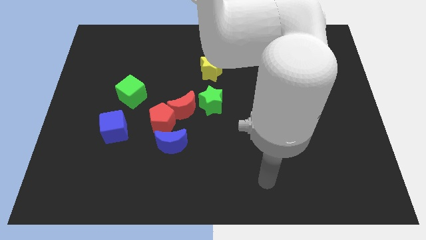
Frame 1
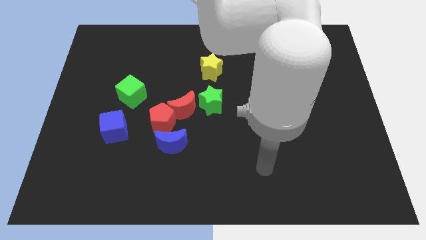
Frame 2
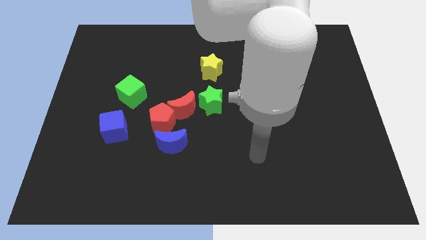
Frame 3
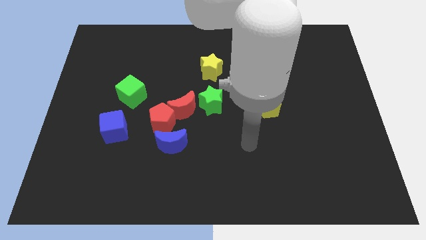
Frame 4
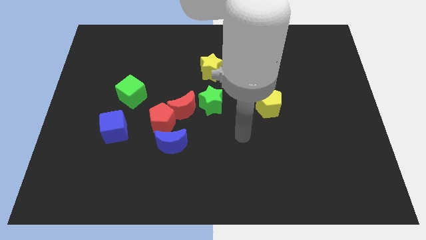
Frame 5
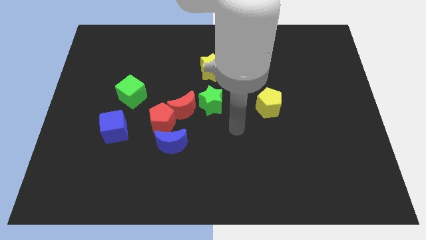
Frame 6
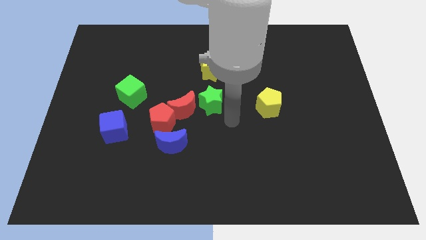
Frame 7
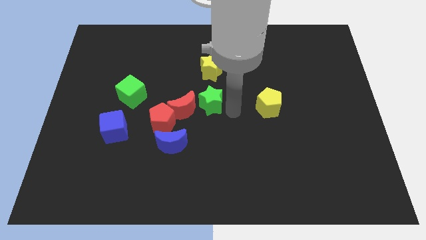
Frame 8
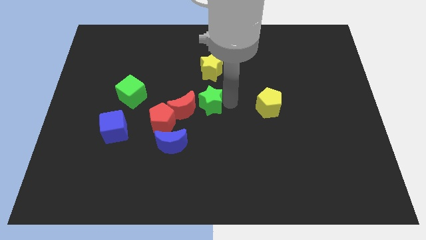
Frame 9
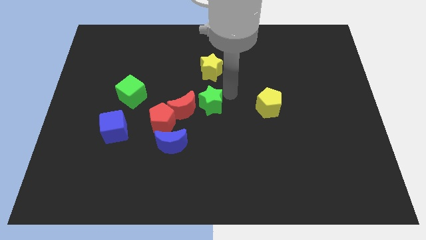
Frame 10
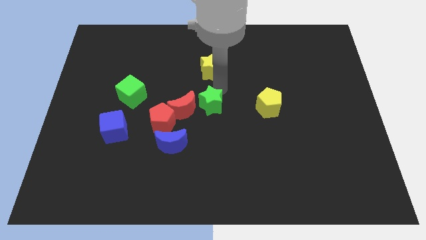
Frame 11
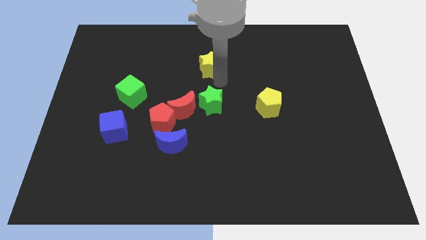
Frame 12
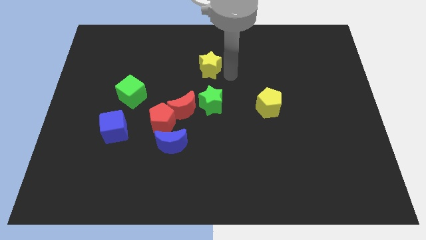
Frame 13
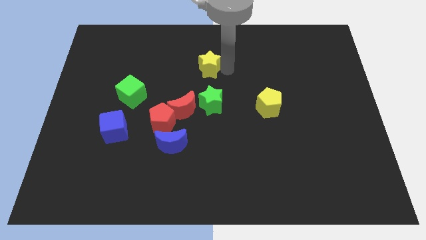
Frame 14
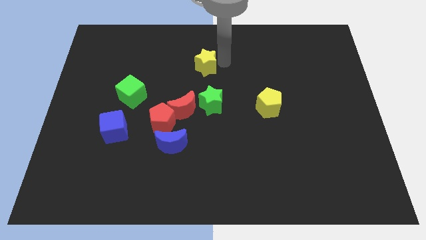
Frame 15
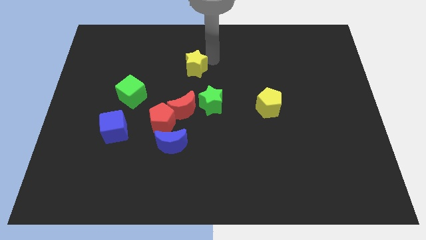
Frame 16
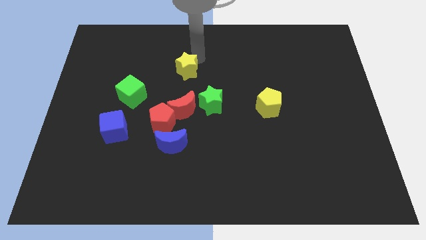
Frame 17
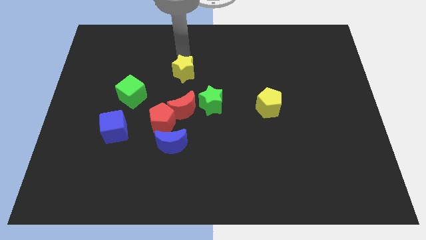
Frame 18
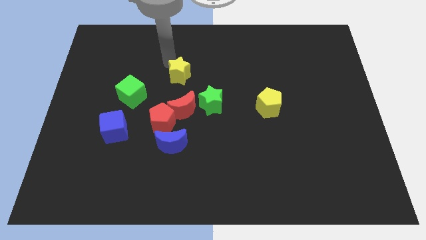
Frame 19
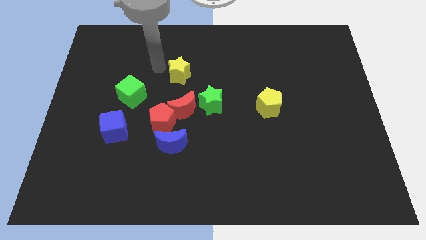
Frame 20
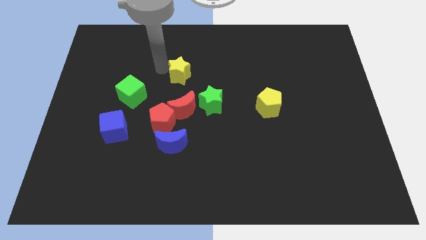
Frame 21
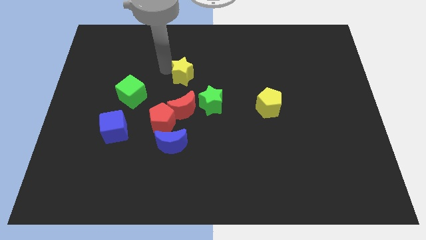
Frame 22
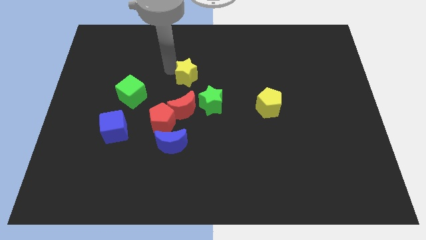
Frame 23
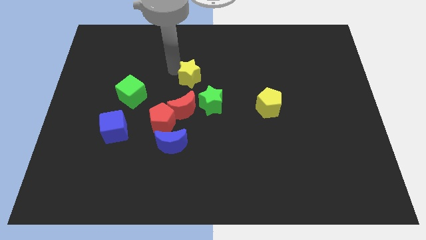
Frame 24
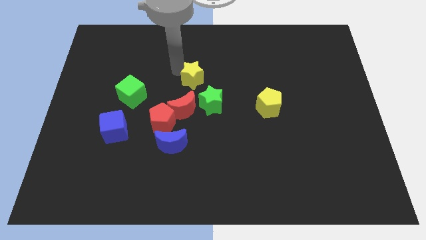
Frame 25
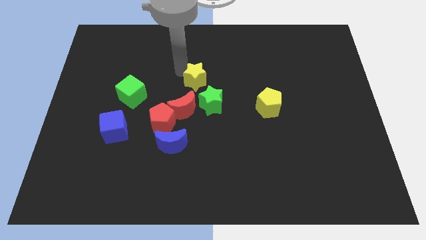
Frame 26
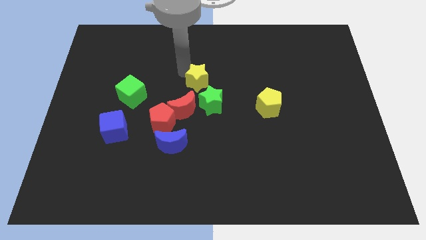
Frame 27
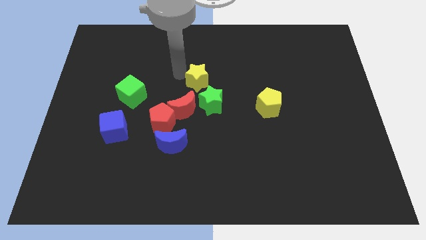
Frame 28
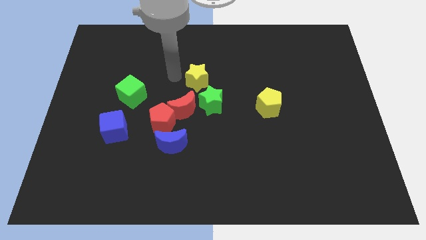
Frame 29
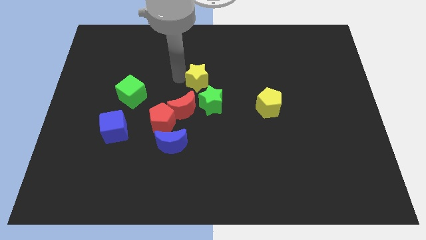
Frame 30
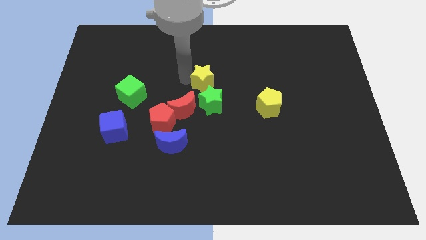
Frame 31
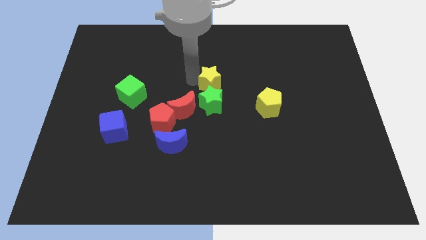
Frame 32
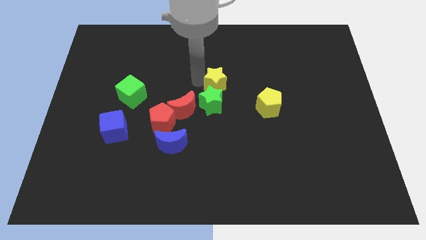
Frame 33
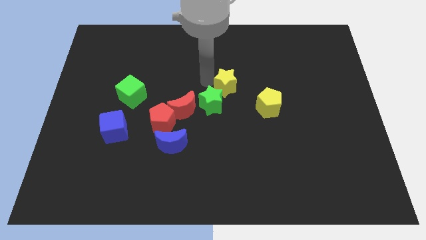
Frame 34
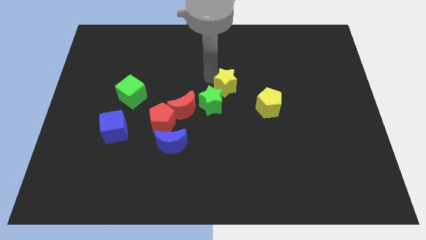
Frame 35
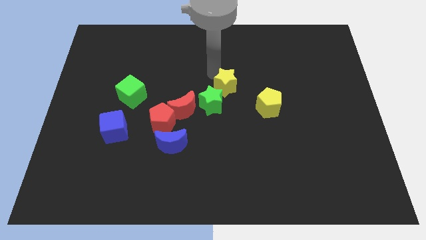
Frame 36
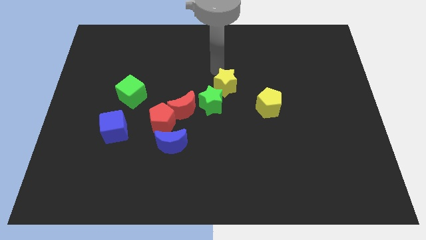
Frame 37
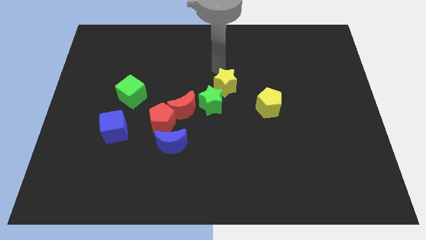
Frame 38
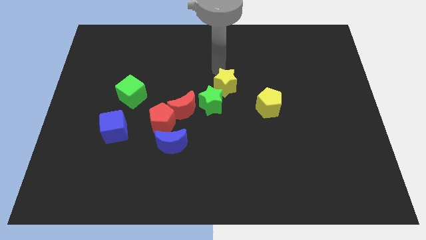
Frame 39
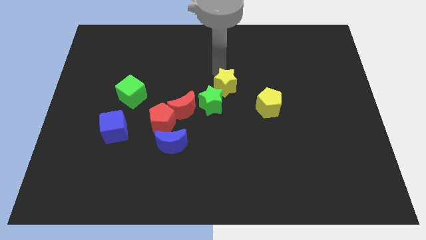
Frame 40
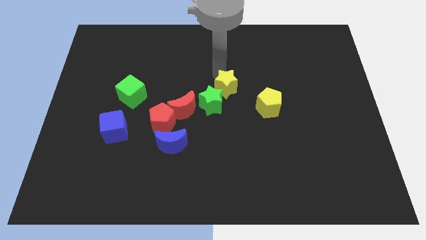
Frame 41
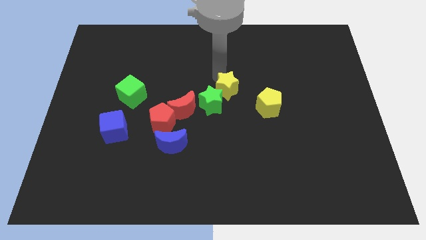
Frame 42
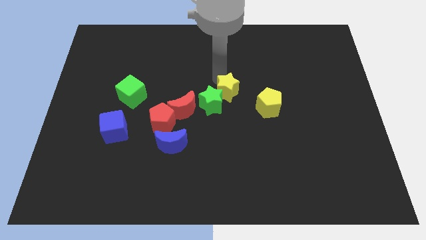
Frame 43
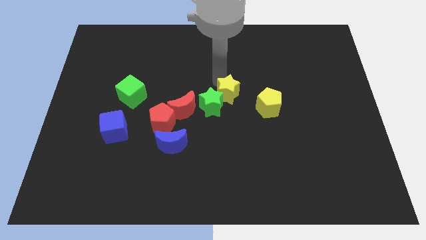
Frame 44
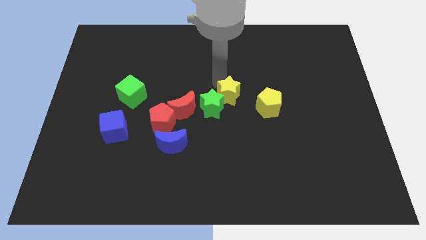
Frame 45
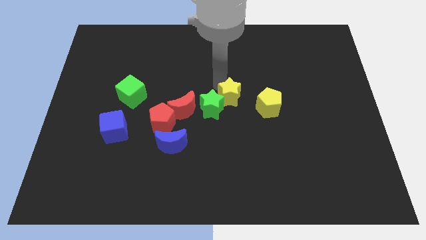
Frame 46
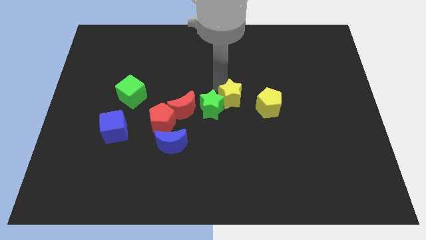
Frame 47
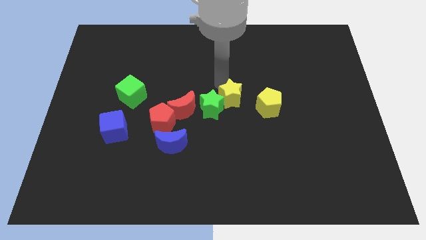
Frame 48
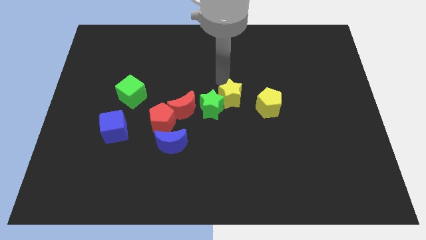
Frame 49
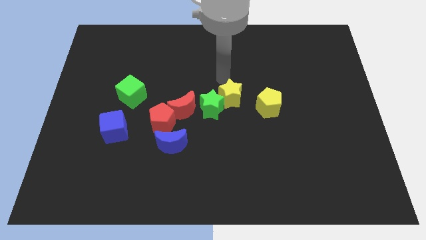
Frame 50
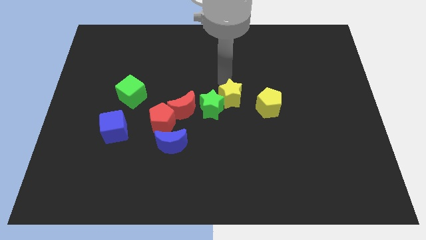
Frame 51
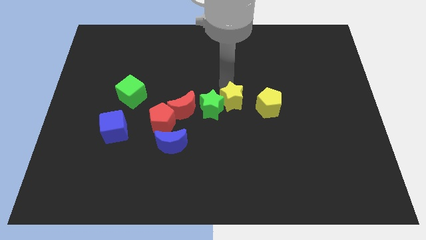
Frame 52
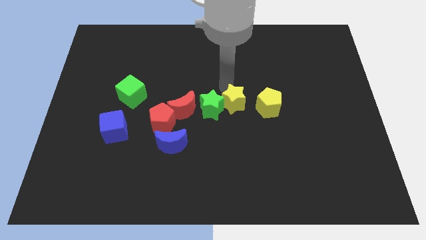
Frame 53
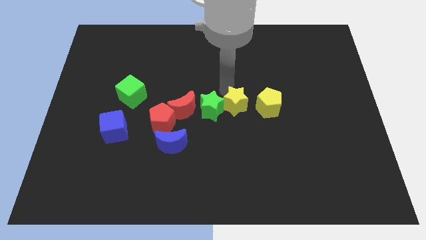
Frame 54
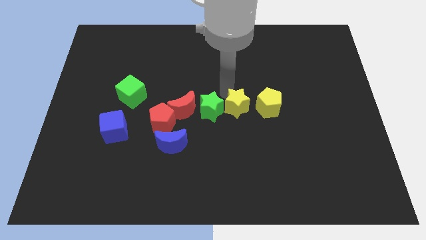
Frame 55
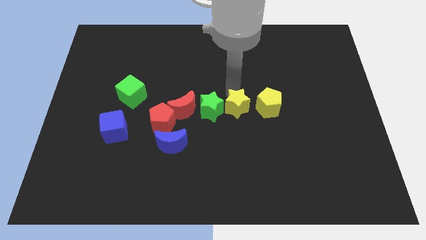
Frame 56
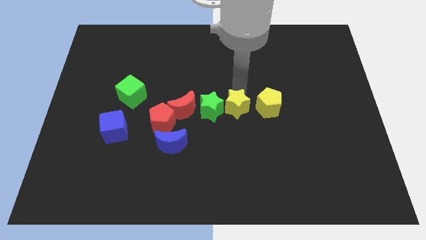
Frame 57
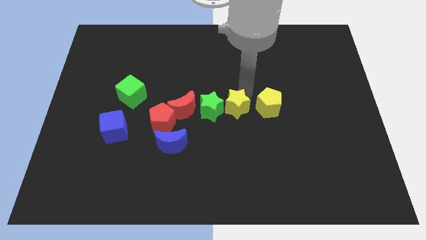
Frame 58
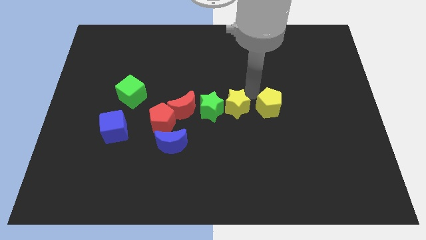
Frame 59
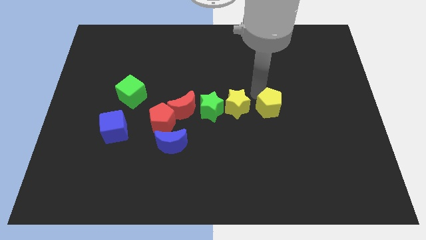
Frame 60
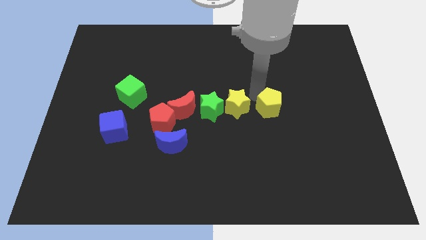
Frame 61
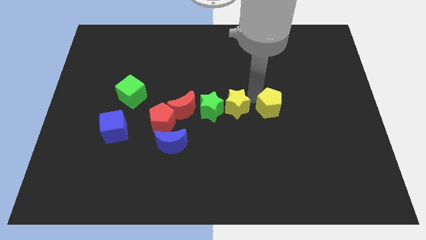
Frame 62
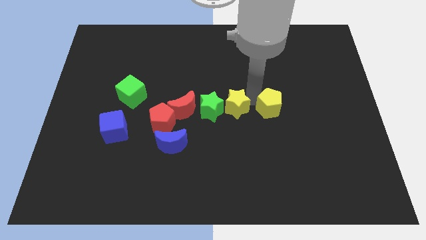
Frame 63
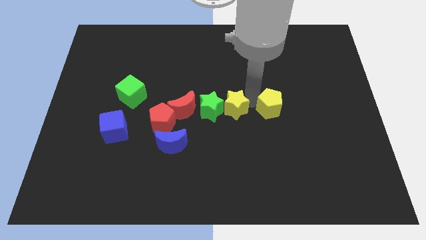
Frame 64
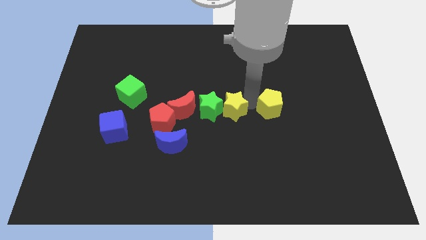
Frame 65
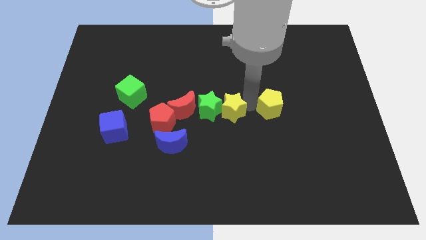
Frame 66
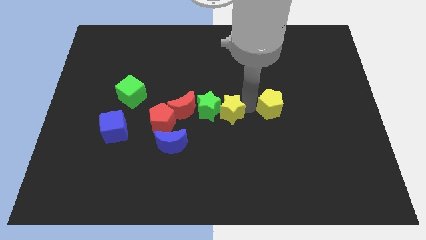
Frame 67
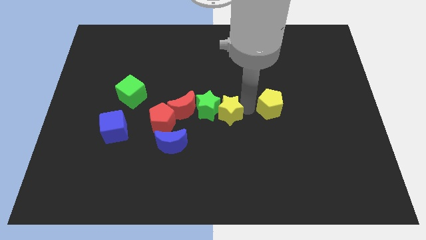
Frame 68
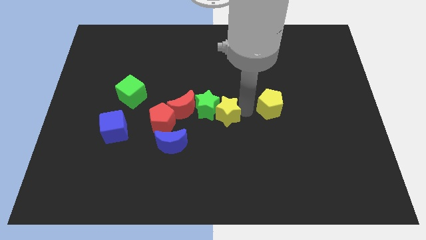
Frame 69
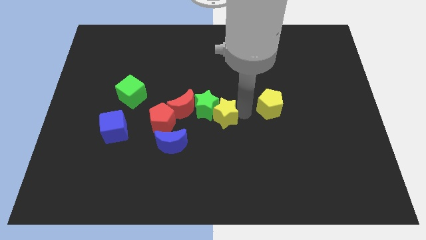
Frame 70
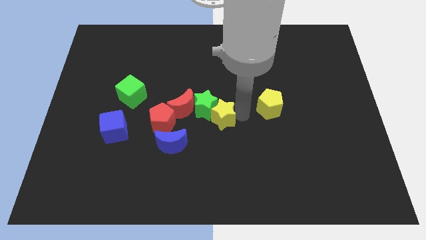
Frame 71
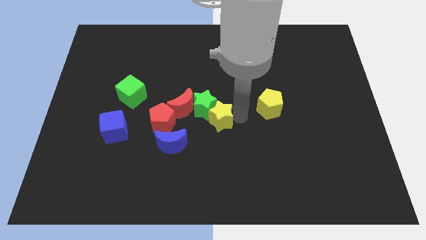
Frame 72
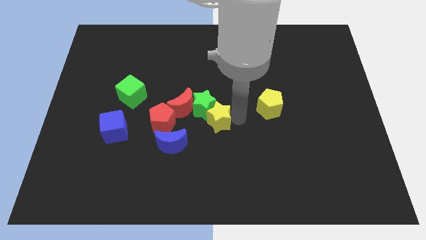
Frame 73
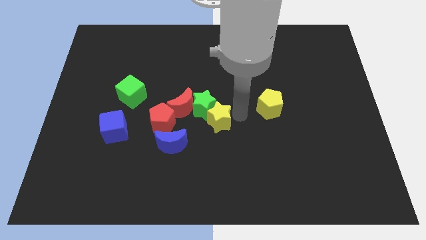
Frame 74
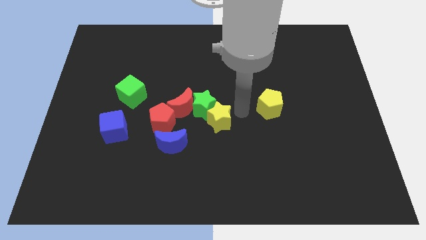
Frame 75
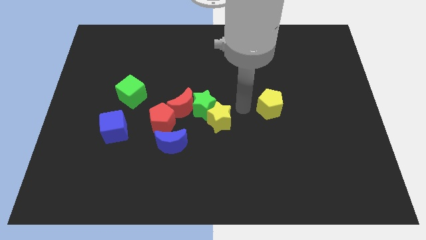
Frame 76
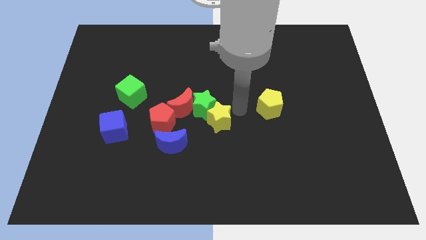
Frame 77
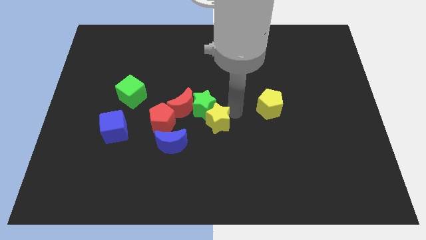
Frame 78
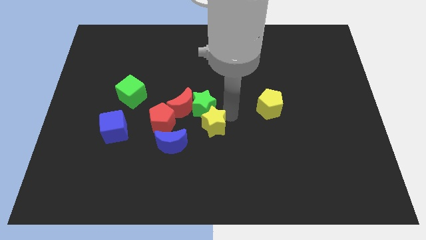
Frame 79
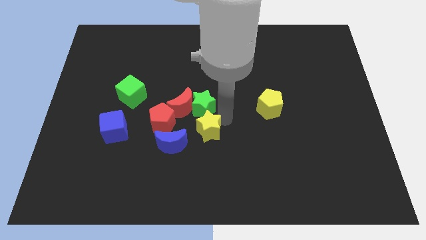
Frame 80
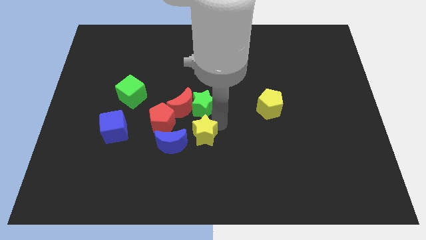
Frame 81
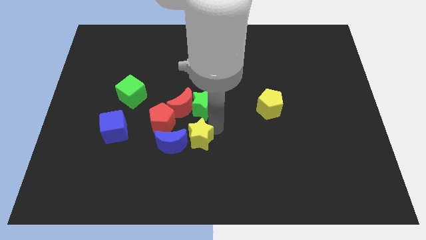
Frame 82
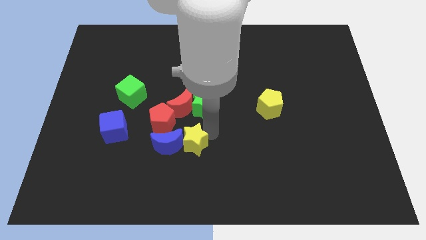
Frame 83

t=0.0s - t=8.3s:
slide the yellow star close to the blue moon
